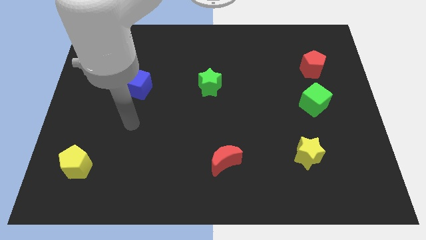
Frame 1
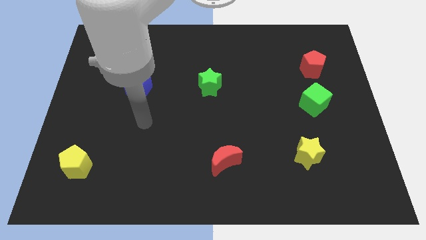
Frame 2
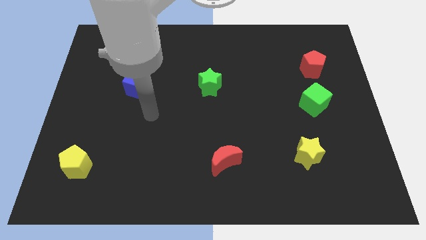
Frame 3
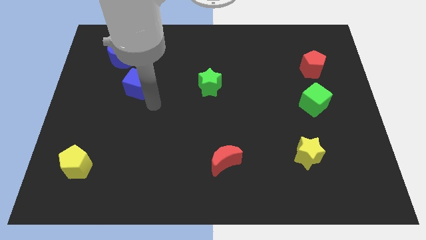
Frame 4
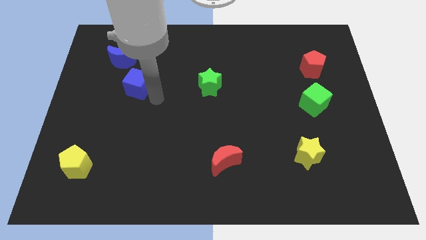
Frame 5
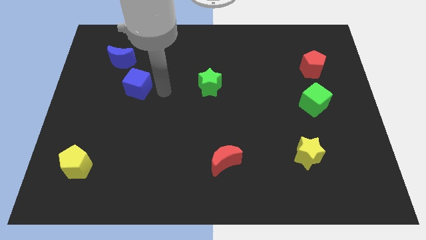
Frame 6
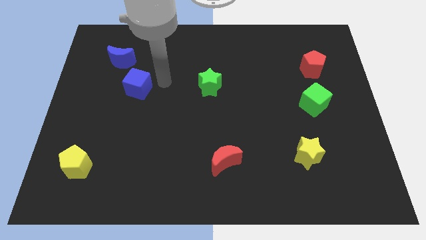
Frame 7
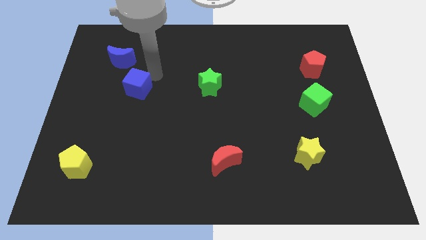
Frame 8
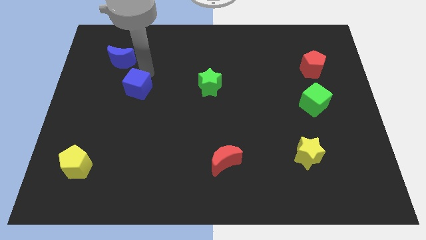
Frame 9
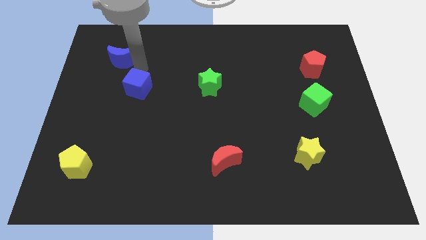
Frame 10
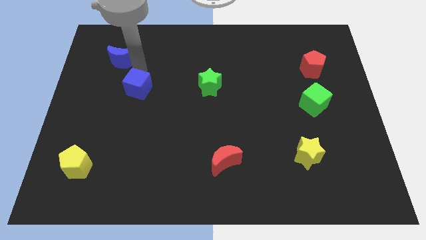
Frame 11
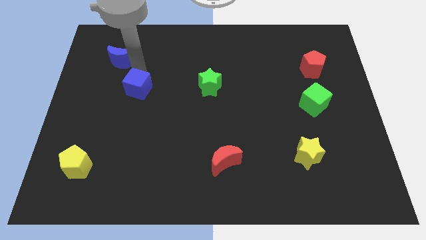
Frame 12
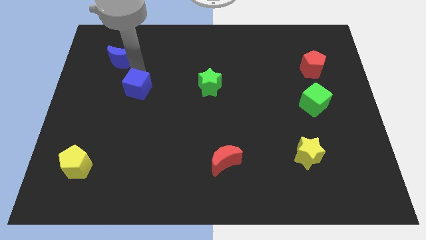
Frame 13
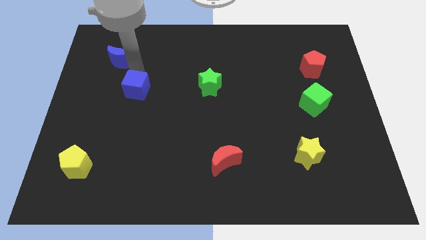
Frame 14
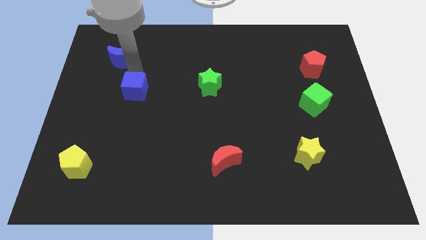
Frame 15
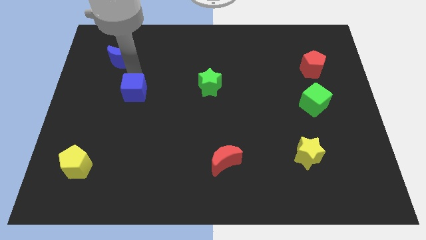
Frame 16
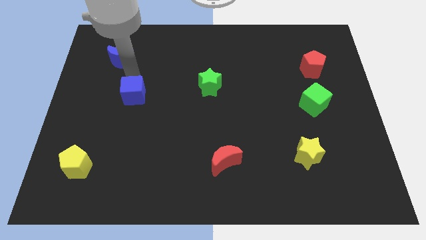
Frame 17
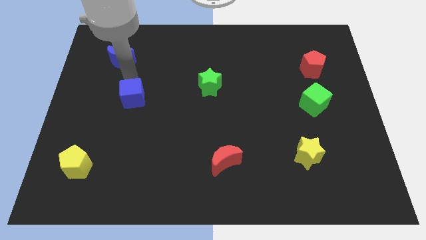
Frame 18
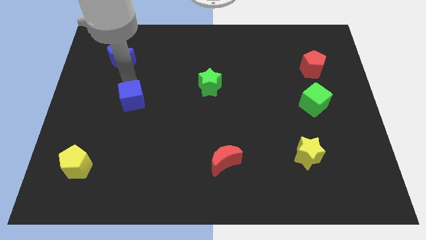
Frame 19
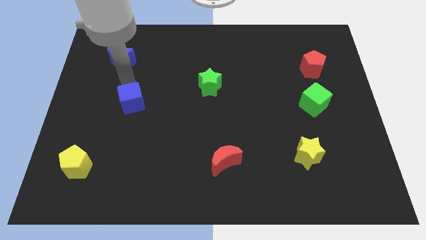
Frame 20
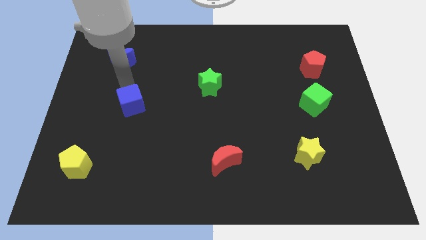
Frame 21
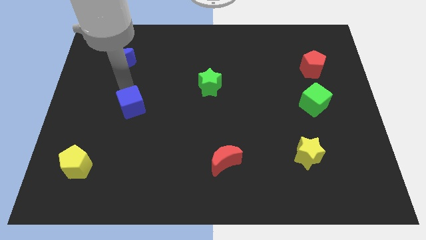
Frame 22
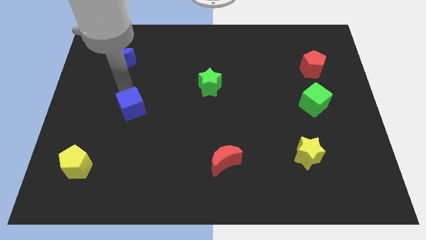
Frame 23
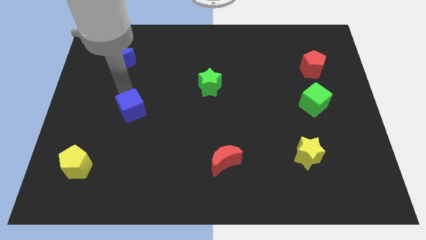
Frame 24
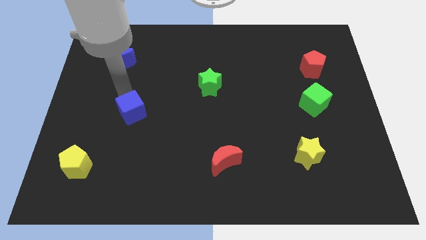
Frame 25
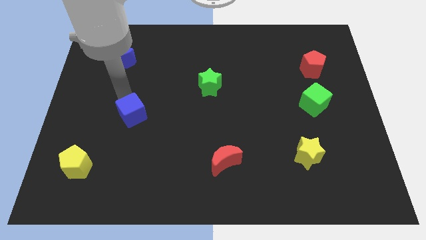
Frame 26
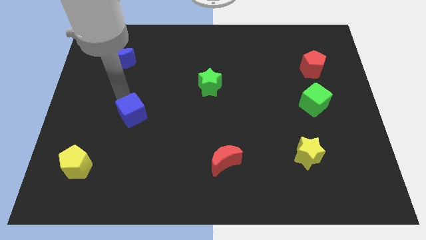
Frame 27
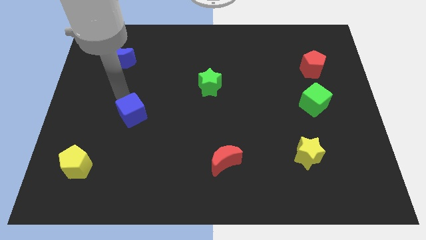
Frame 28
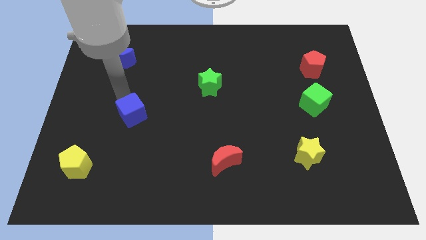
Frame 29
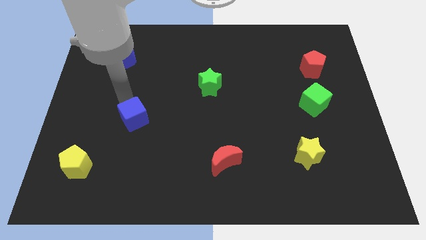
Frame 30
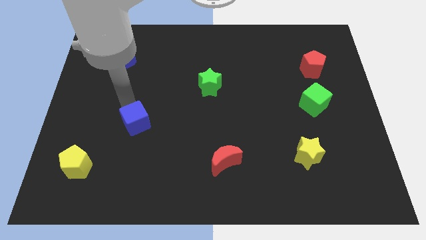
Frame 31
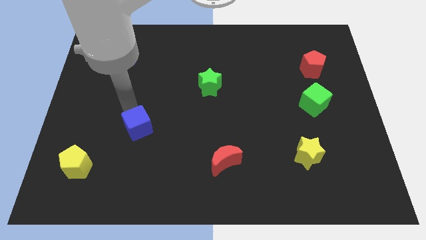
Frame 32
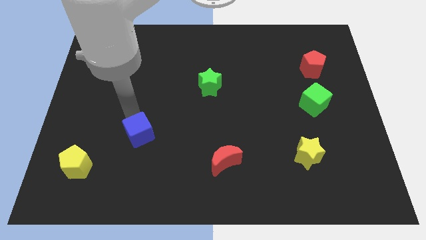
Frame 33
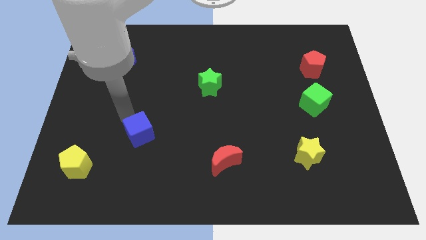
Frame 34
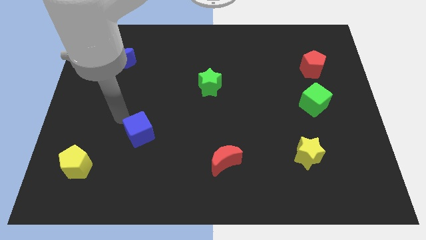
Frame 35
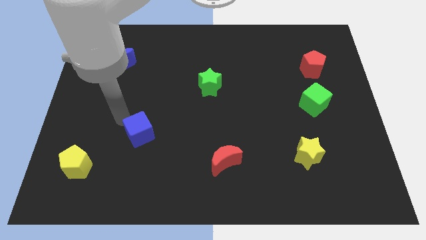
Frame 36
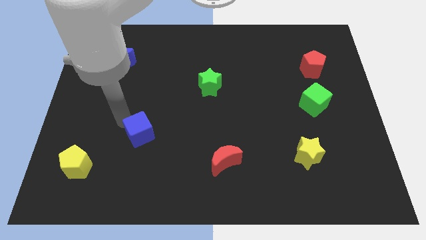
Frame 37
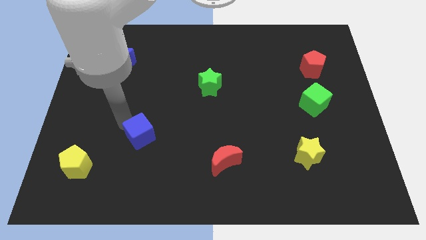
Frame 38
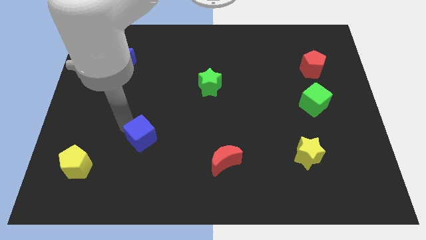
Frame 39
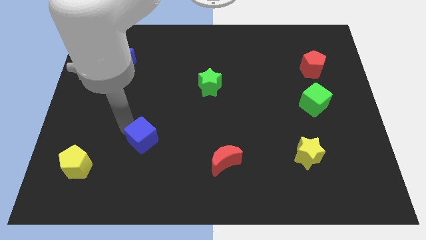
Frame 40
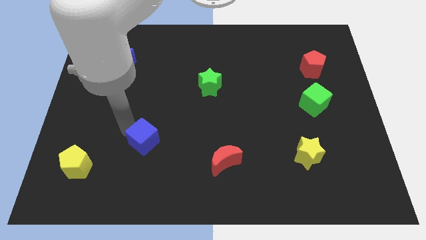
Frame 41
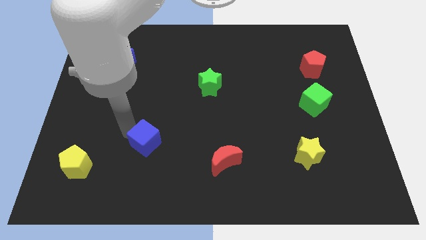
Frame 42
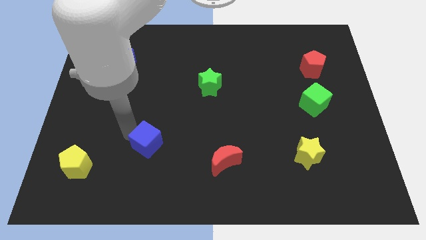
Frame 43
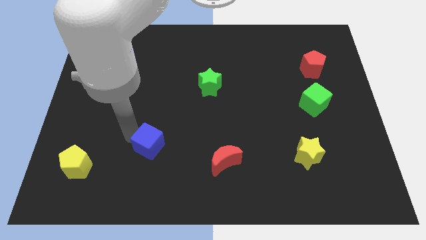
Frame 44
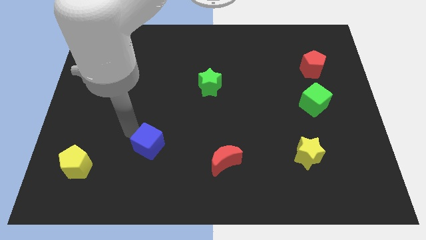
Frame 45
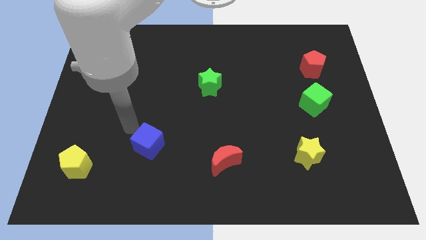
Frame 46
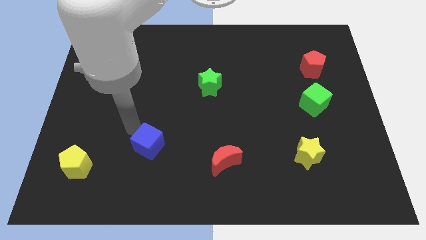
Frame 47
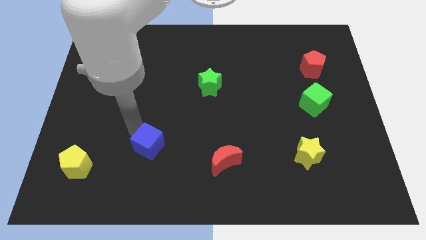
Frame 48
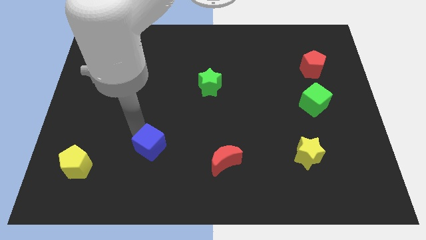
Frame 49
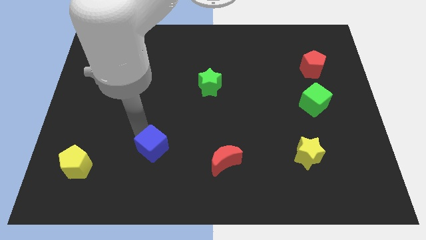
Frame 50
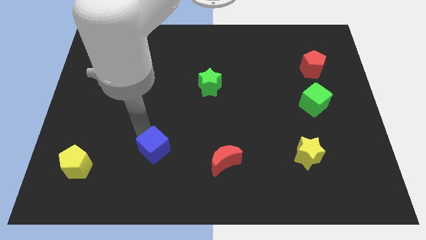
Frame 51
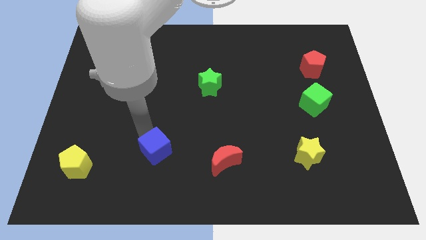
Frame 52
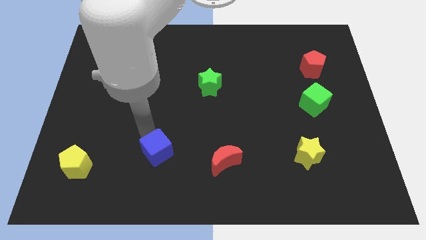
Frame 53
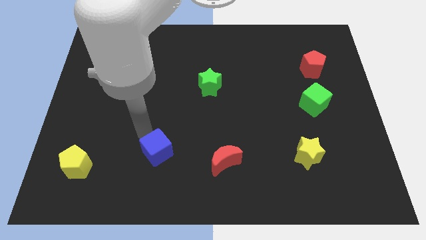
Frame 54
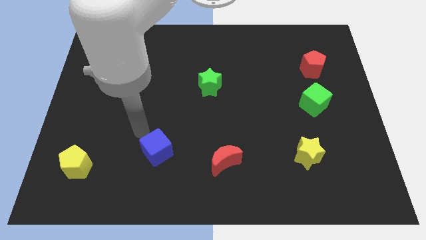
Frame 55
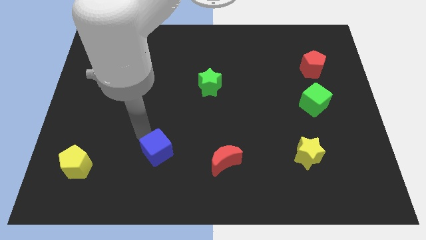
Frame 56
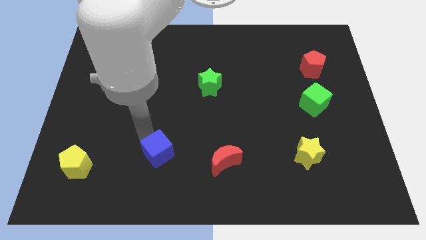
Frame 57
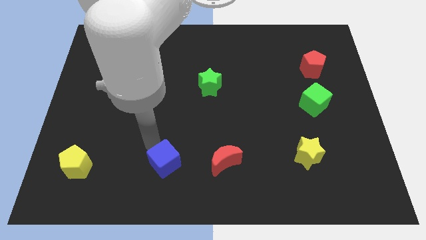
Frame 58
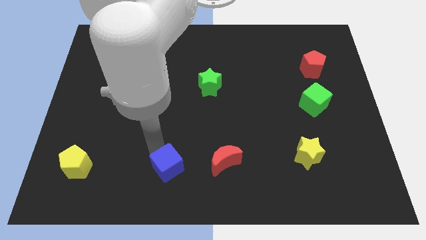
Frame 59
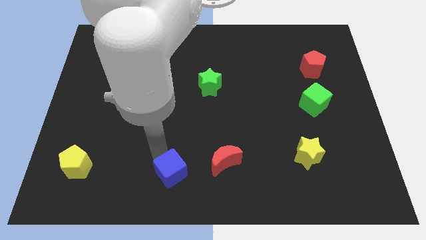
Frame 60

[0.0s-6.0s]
move the blue cube to the bottom

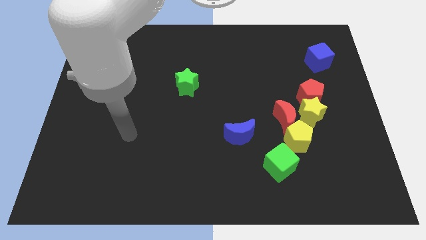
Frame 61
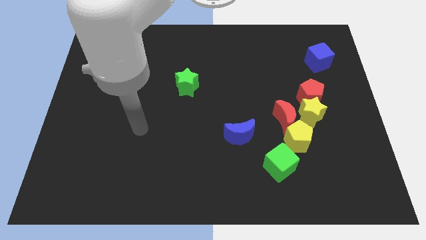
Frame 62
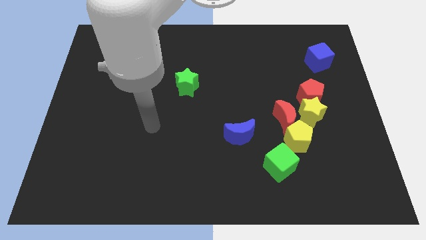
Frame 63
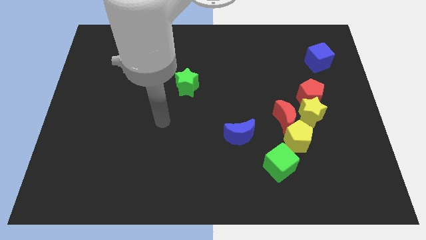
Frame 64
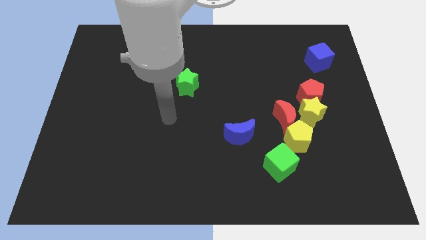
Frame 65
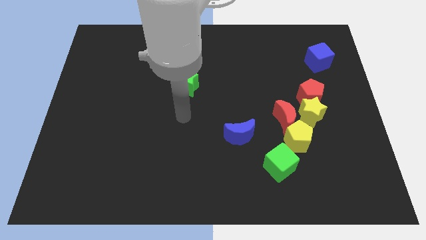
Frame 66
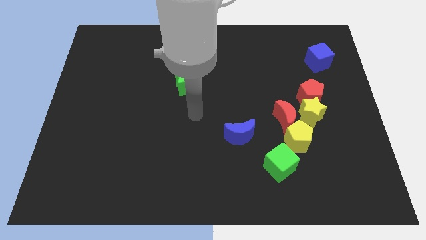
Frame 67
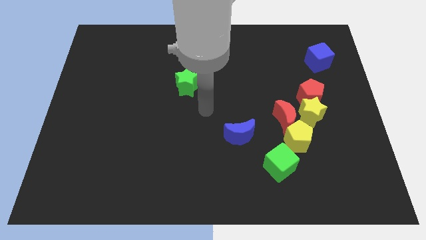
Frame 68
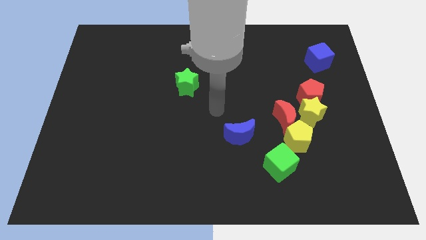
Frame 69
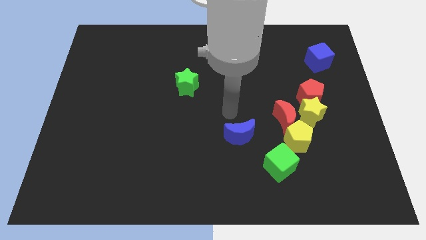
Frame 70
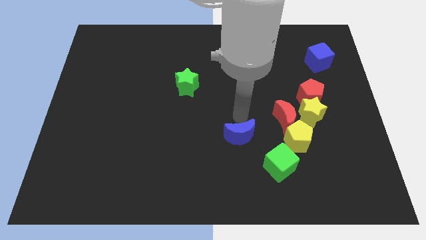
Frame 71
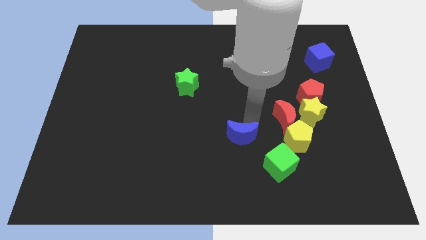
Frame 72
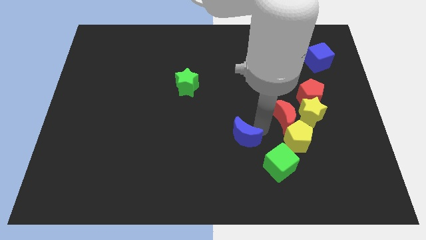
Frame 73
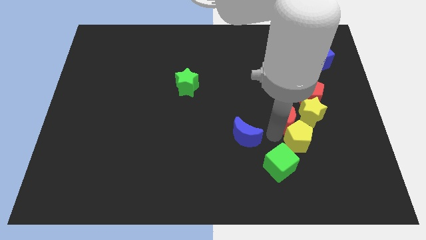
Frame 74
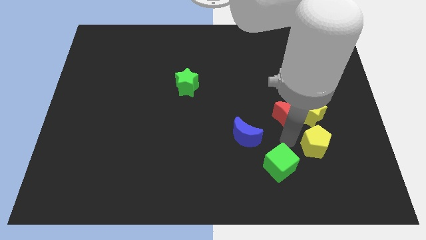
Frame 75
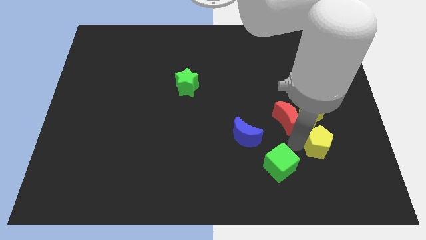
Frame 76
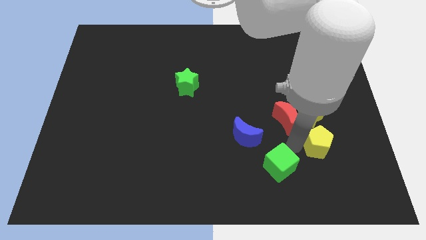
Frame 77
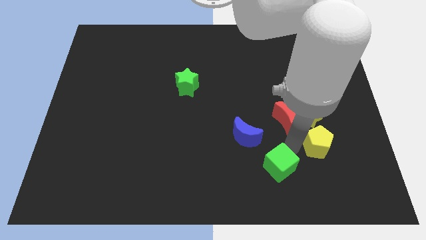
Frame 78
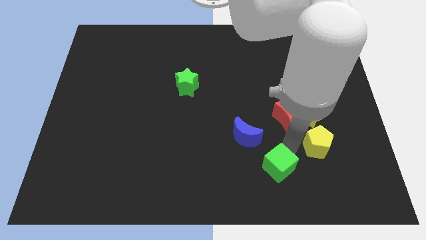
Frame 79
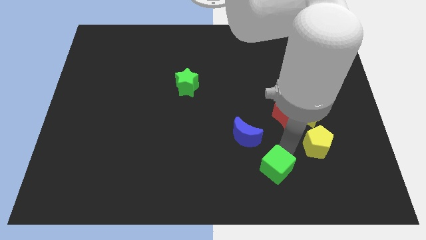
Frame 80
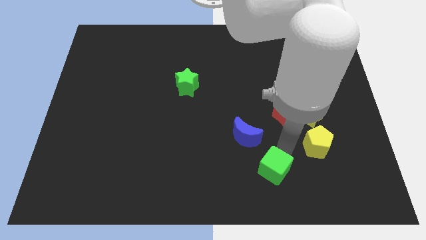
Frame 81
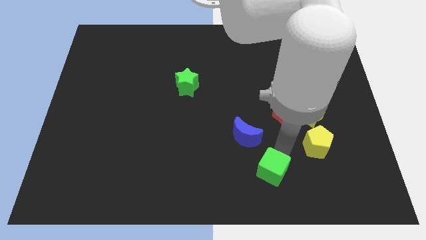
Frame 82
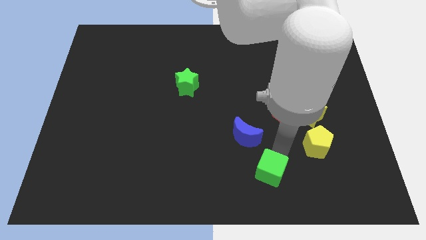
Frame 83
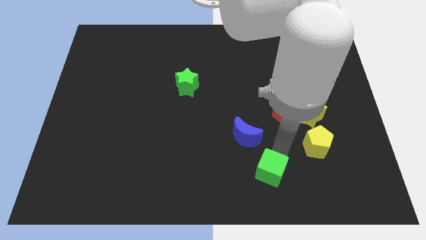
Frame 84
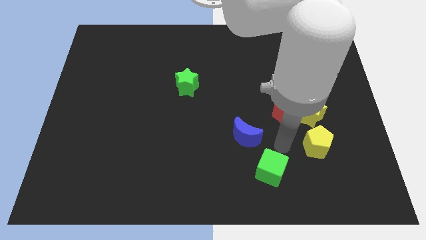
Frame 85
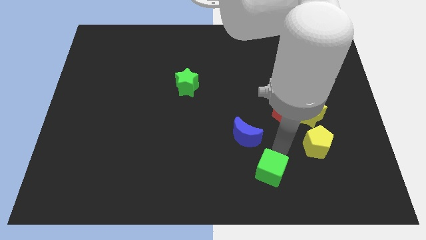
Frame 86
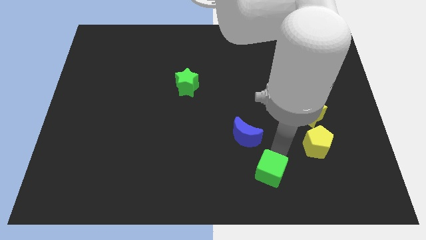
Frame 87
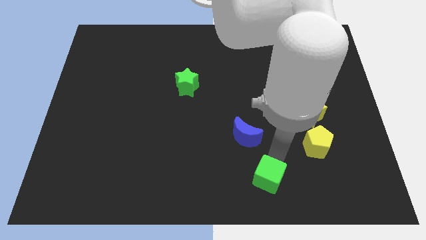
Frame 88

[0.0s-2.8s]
slide the green cube to the bottom side
